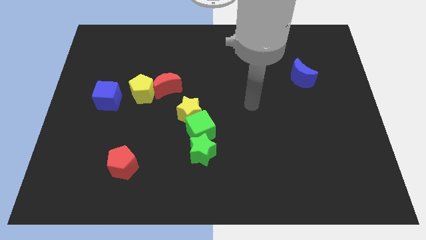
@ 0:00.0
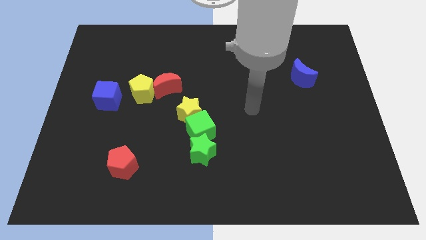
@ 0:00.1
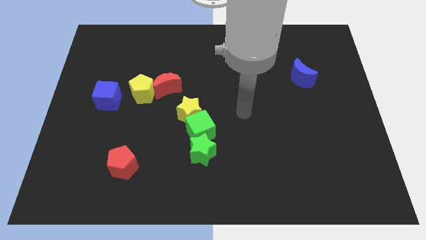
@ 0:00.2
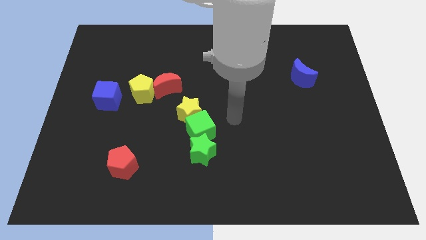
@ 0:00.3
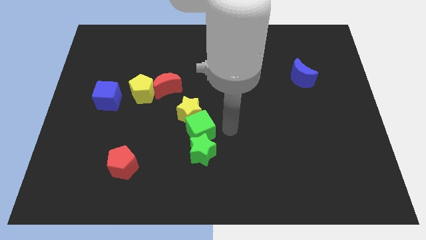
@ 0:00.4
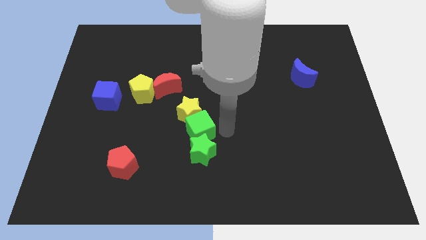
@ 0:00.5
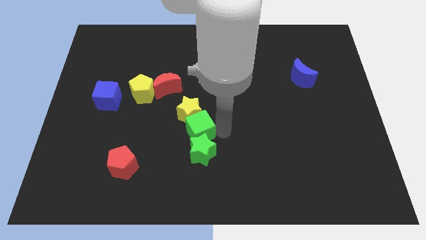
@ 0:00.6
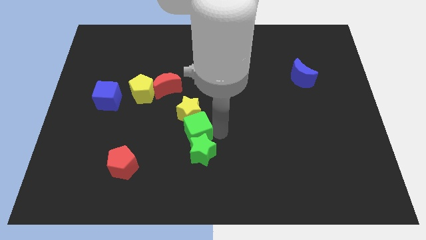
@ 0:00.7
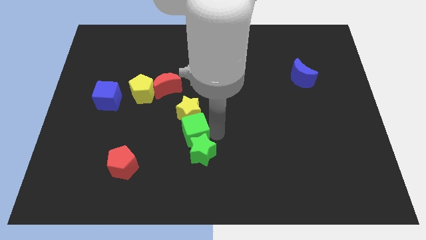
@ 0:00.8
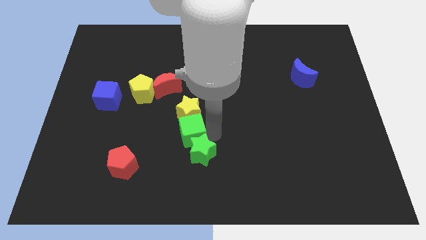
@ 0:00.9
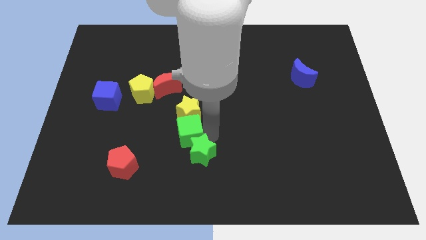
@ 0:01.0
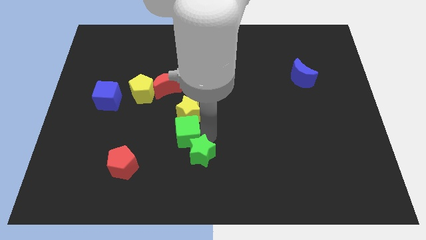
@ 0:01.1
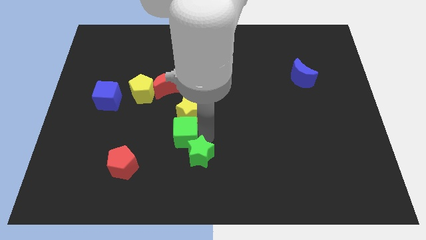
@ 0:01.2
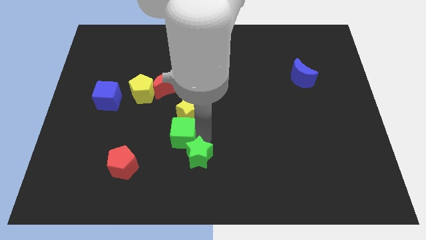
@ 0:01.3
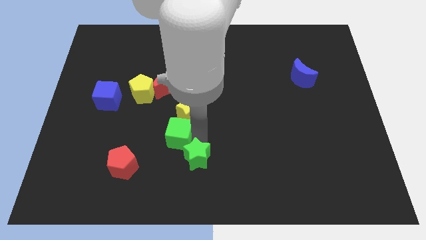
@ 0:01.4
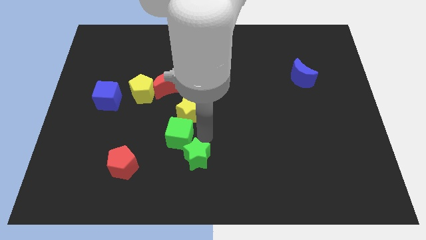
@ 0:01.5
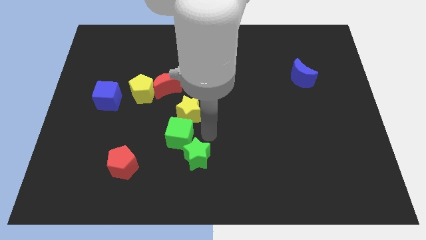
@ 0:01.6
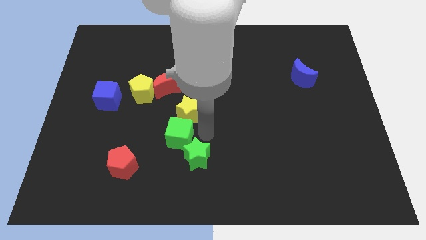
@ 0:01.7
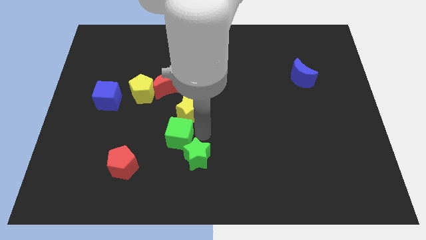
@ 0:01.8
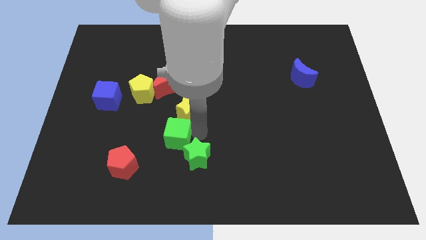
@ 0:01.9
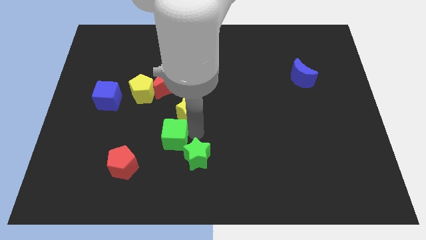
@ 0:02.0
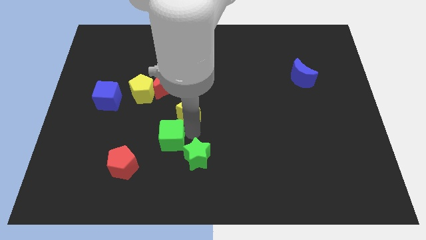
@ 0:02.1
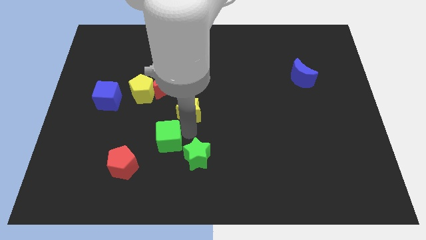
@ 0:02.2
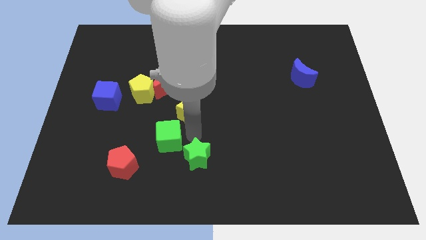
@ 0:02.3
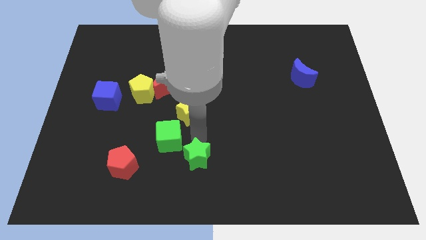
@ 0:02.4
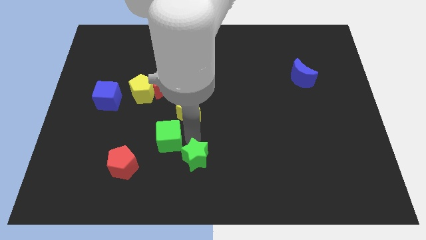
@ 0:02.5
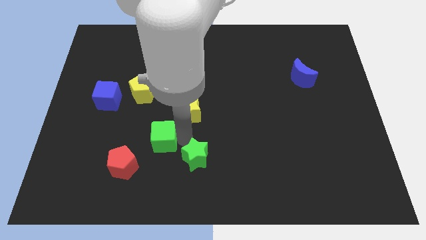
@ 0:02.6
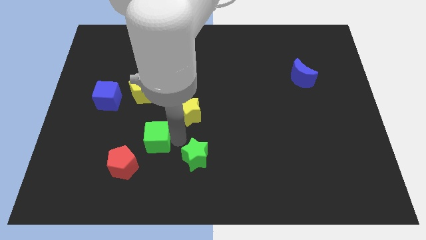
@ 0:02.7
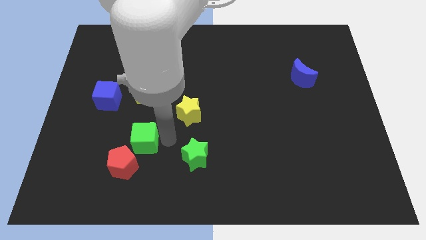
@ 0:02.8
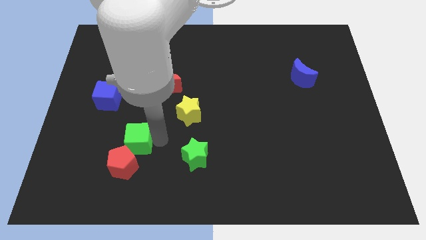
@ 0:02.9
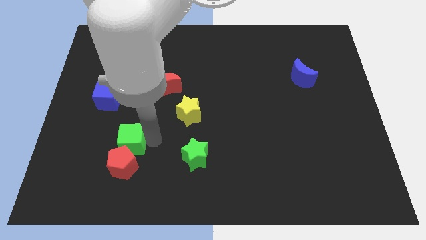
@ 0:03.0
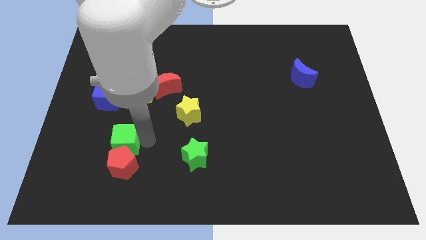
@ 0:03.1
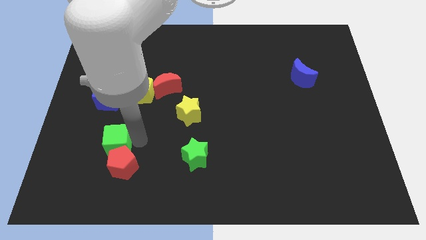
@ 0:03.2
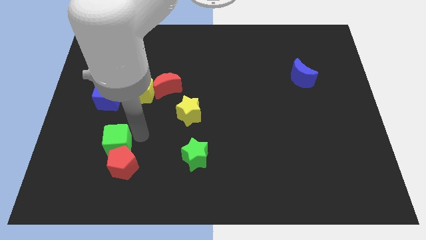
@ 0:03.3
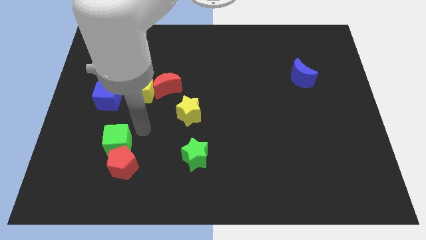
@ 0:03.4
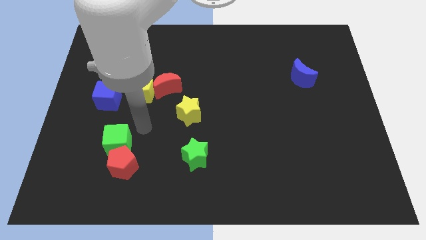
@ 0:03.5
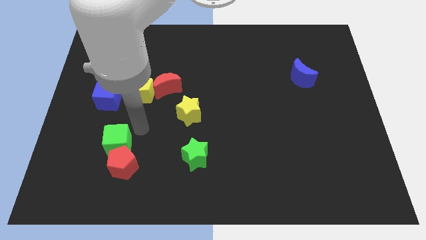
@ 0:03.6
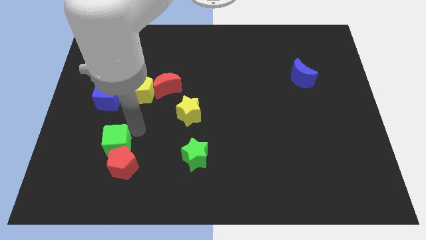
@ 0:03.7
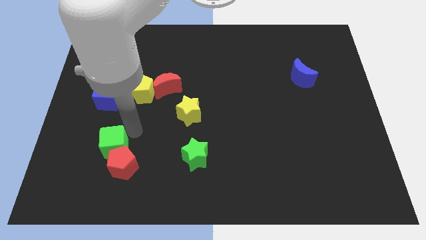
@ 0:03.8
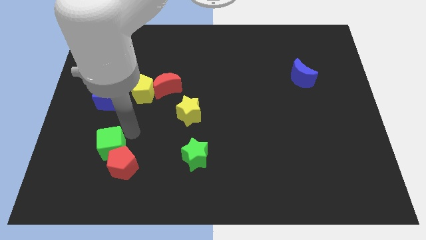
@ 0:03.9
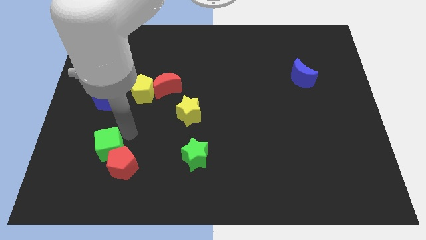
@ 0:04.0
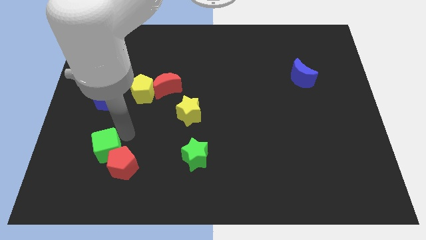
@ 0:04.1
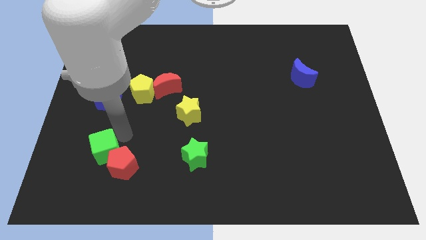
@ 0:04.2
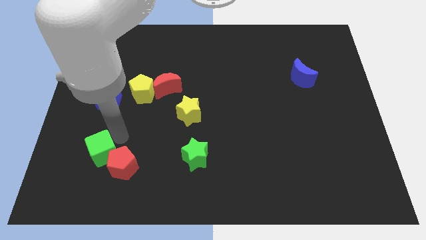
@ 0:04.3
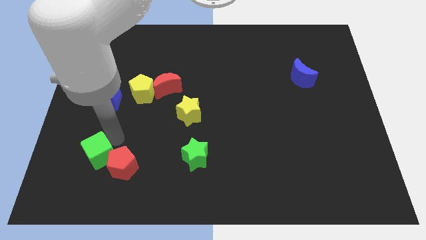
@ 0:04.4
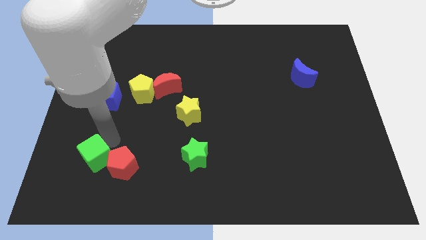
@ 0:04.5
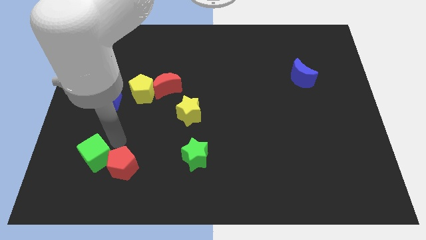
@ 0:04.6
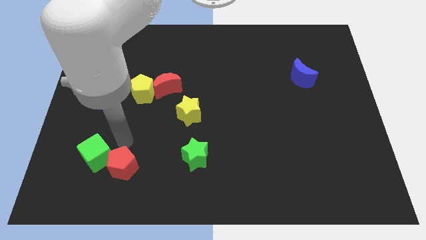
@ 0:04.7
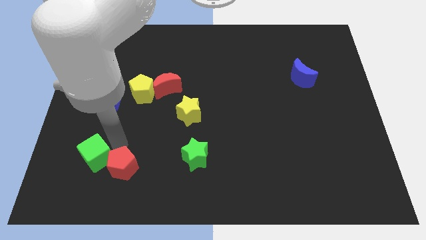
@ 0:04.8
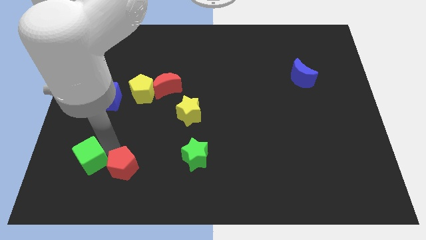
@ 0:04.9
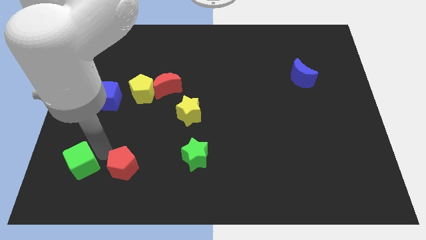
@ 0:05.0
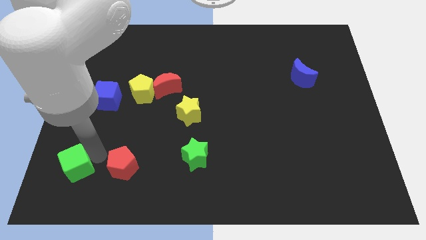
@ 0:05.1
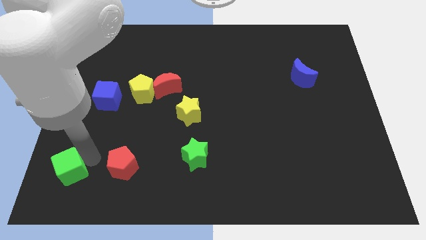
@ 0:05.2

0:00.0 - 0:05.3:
push the green cube to the bottom left of the board

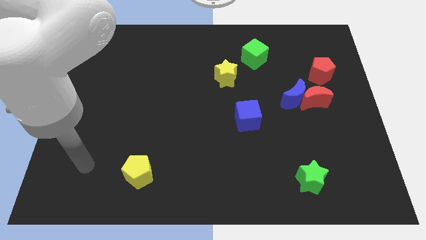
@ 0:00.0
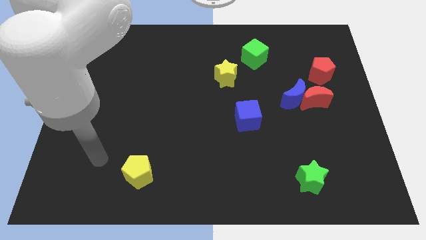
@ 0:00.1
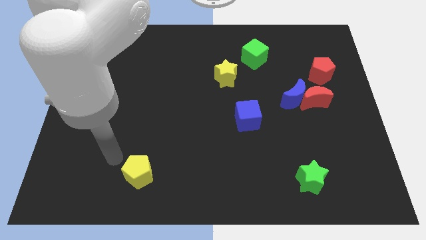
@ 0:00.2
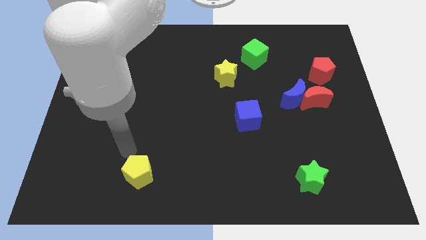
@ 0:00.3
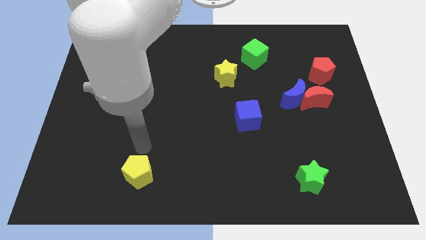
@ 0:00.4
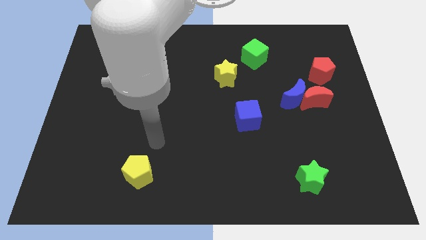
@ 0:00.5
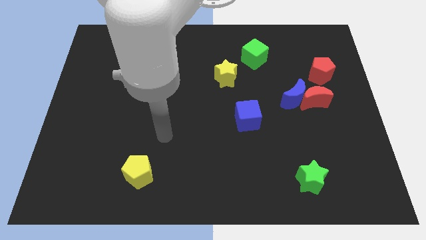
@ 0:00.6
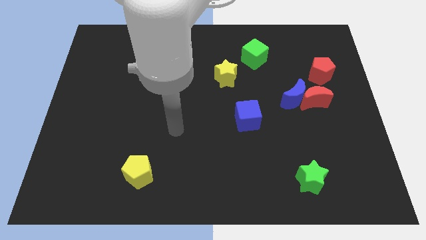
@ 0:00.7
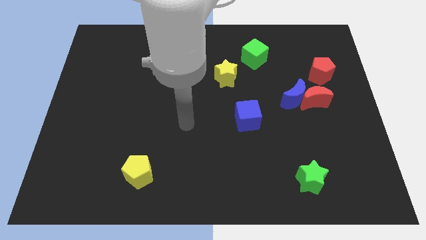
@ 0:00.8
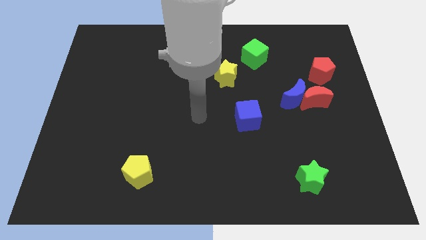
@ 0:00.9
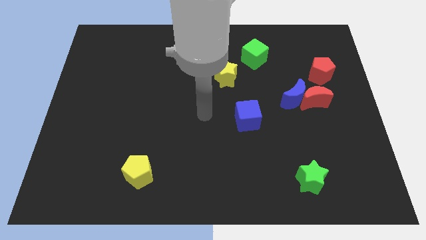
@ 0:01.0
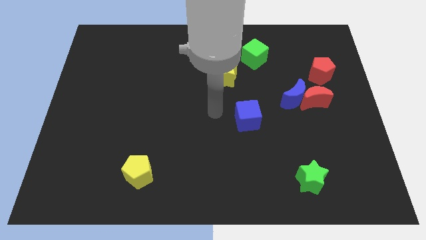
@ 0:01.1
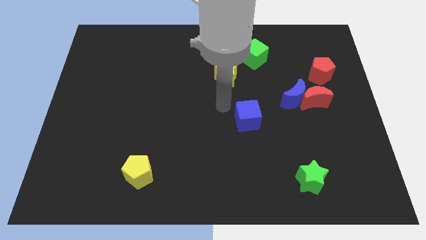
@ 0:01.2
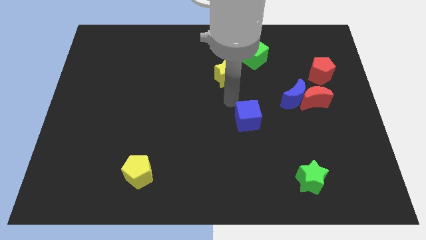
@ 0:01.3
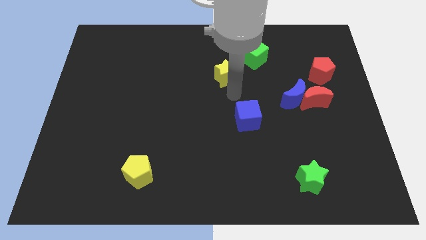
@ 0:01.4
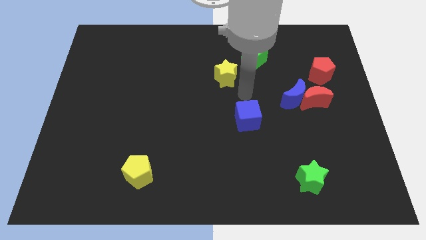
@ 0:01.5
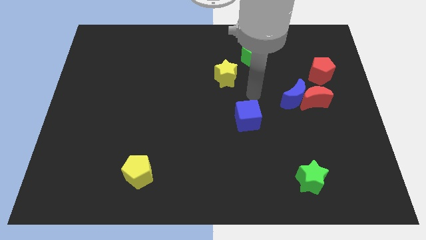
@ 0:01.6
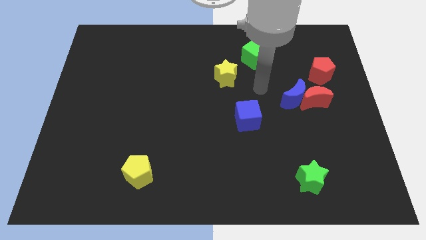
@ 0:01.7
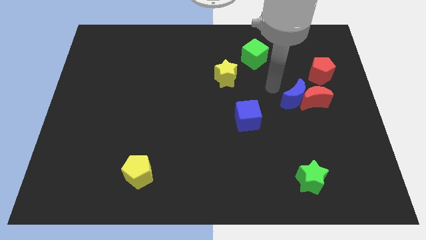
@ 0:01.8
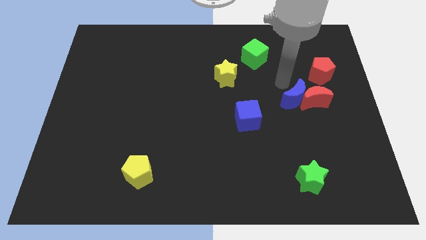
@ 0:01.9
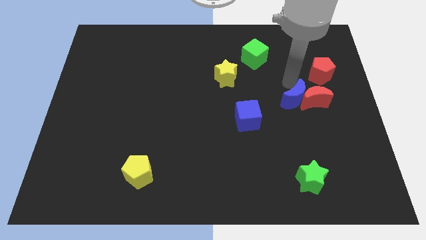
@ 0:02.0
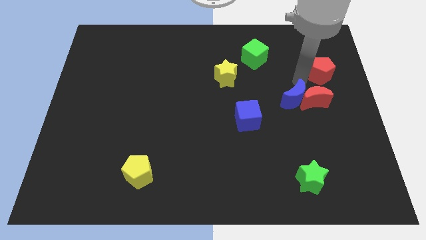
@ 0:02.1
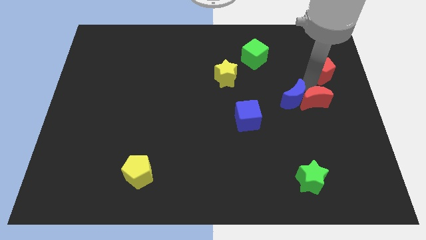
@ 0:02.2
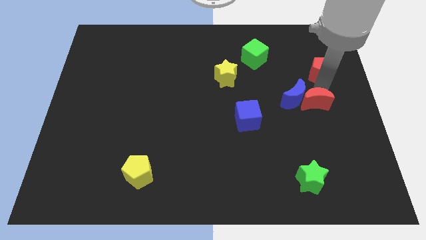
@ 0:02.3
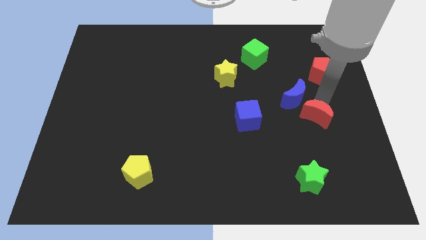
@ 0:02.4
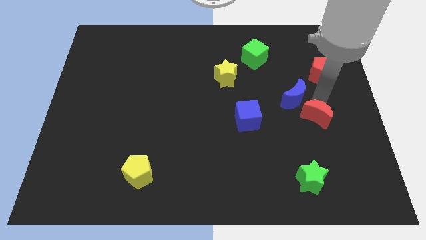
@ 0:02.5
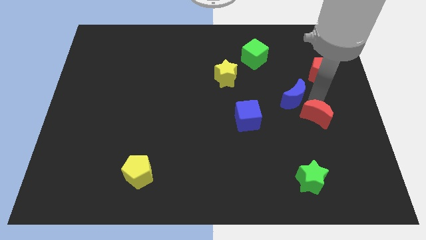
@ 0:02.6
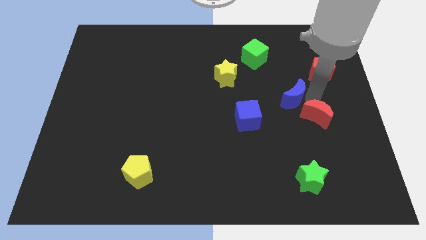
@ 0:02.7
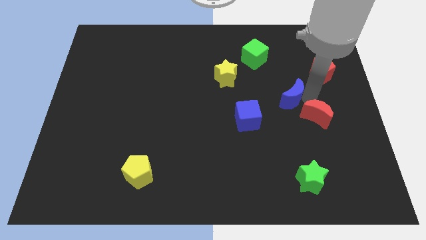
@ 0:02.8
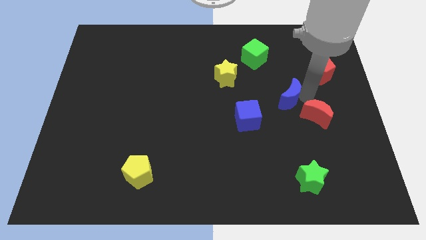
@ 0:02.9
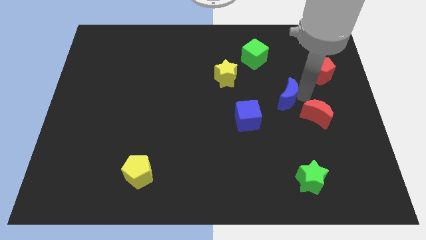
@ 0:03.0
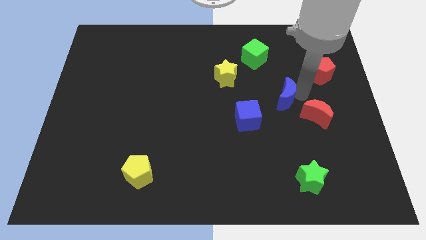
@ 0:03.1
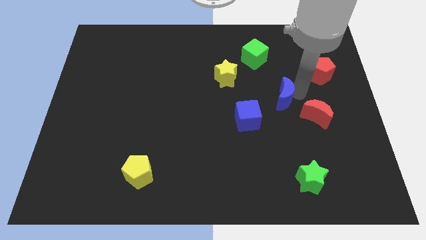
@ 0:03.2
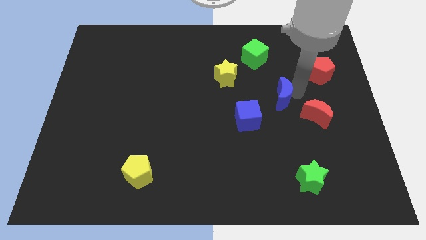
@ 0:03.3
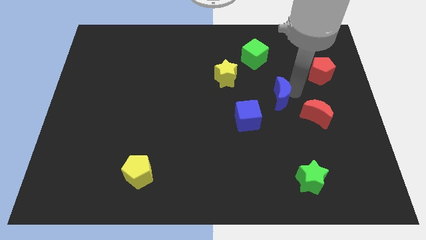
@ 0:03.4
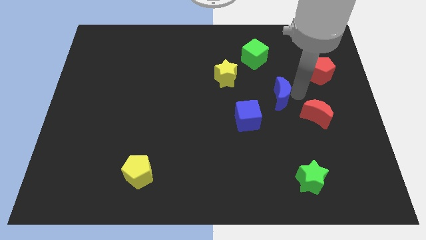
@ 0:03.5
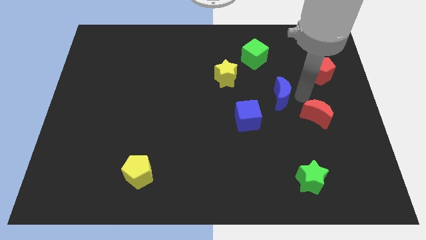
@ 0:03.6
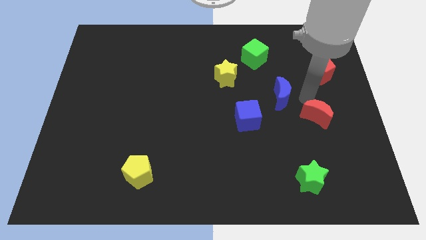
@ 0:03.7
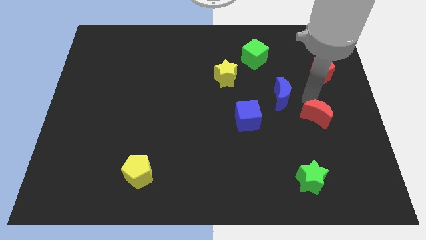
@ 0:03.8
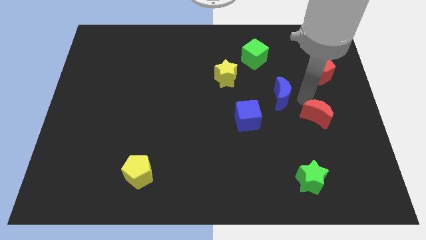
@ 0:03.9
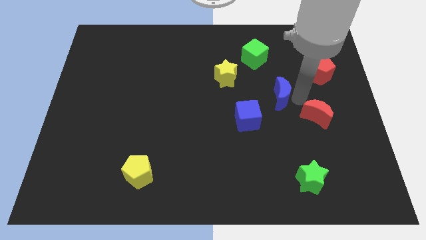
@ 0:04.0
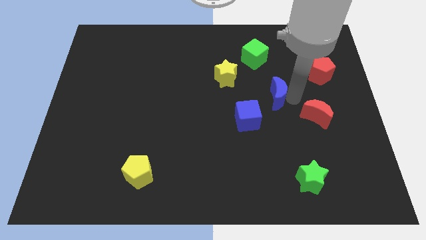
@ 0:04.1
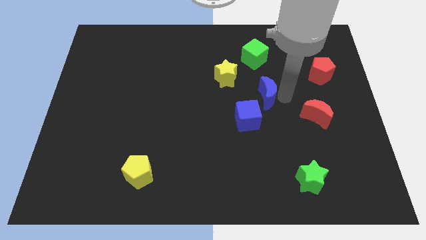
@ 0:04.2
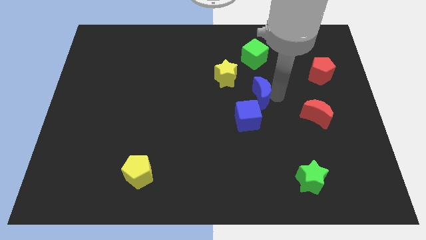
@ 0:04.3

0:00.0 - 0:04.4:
slide the blue moon to the center
